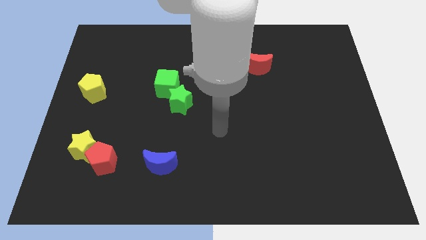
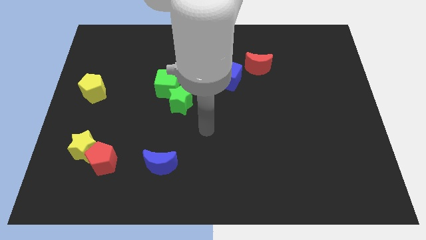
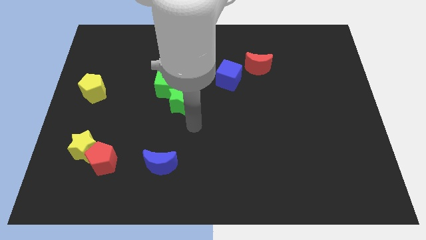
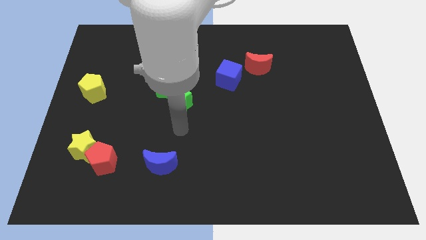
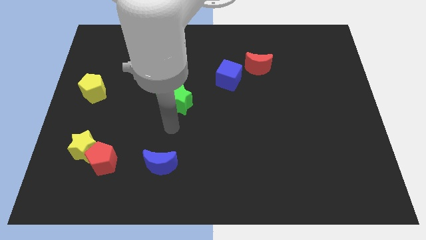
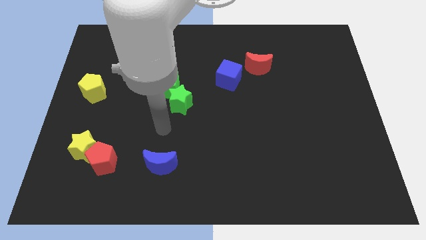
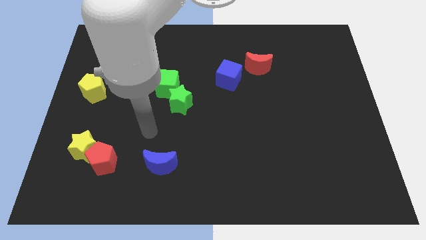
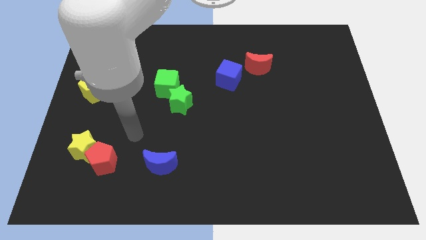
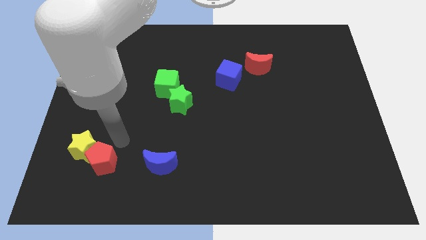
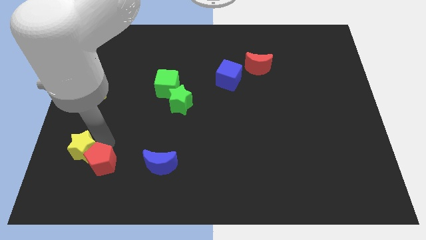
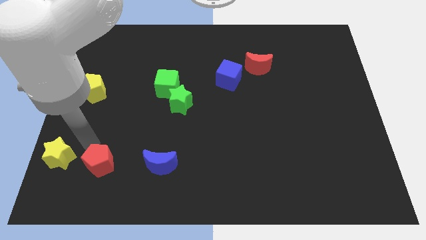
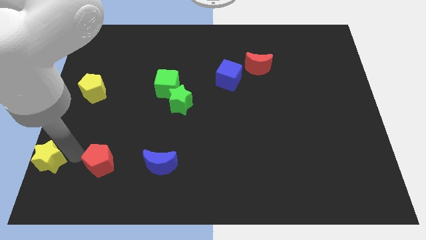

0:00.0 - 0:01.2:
separate the red pentagon from the yellow star

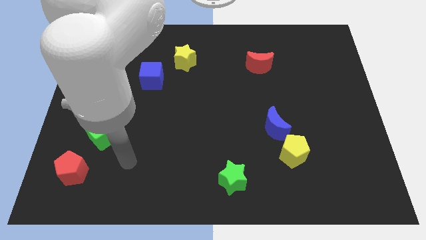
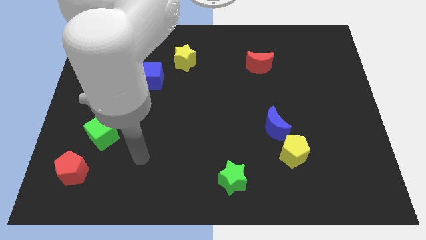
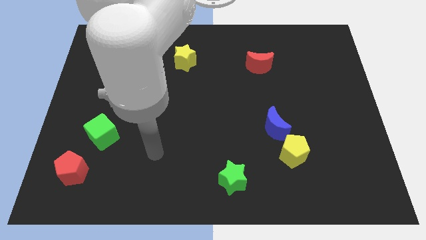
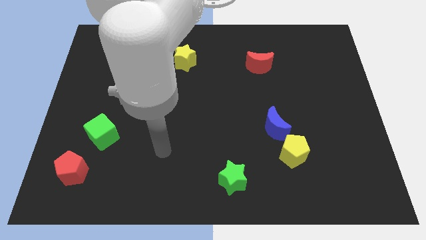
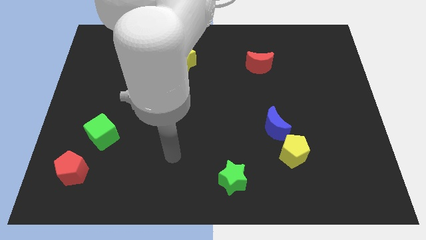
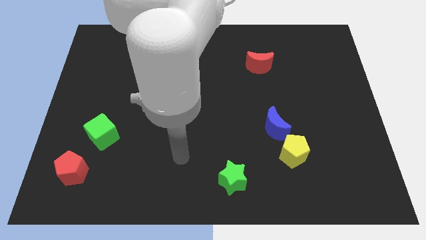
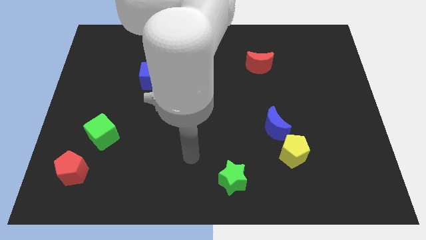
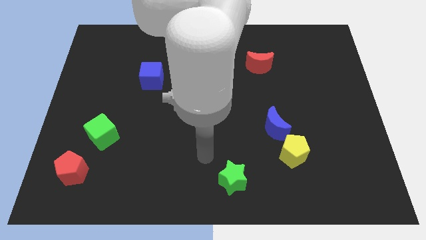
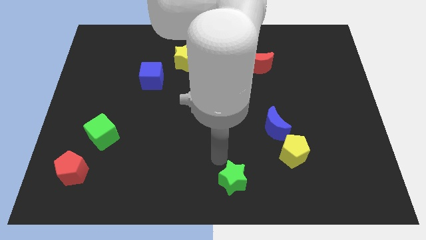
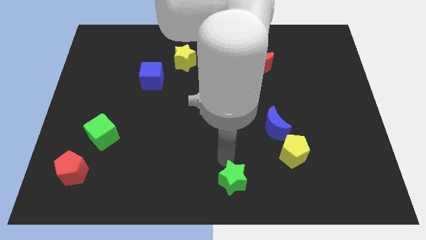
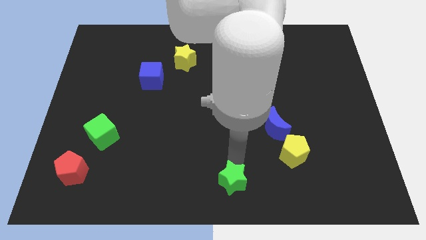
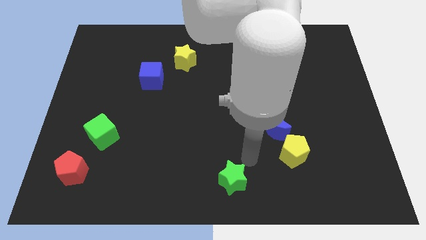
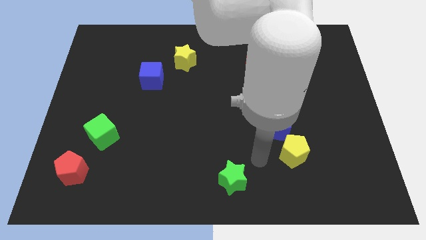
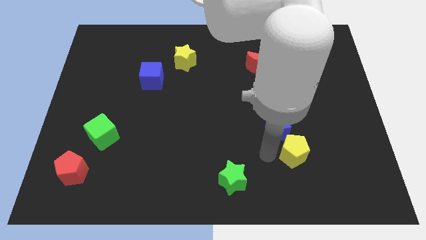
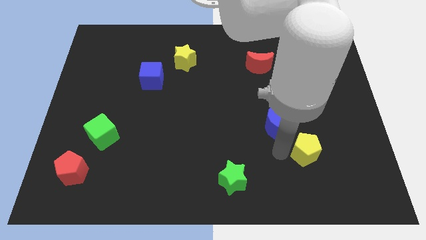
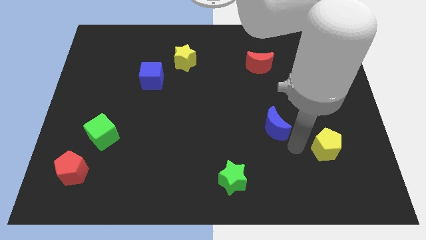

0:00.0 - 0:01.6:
separate the blue moon from the yellow pentagon

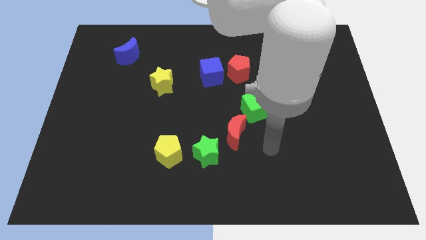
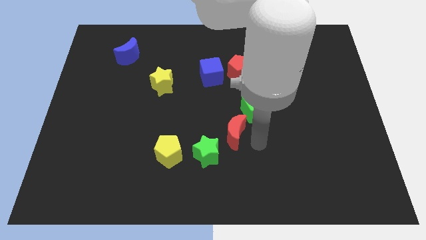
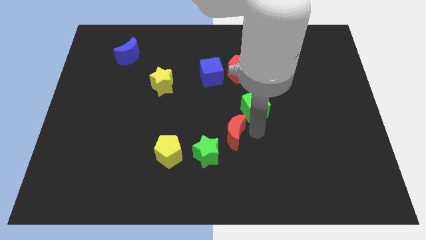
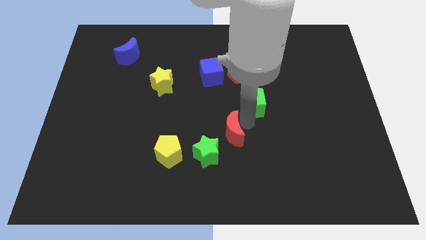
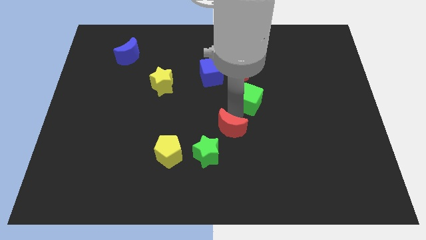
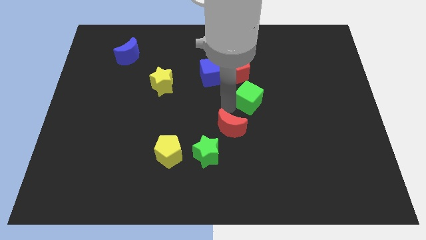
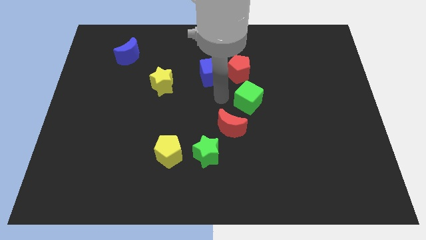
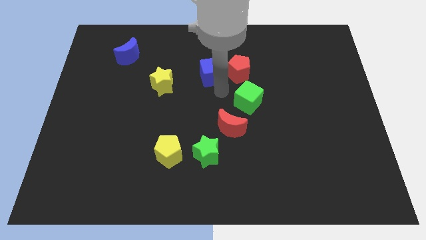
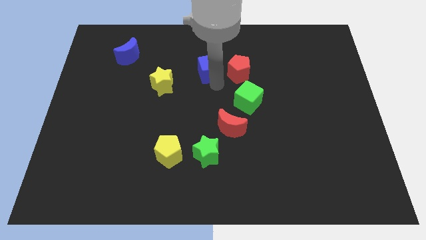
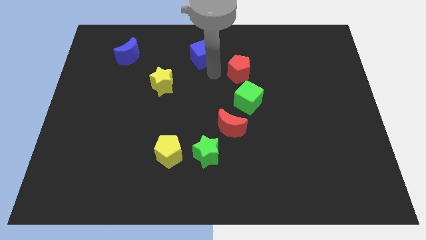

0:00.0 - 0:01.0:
pull the red pentagon apart from the blue cube

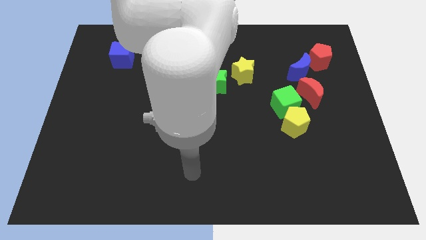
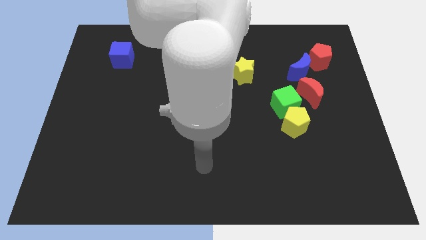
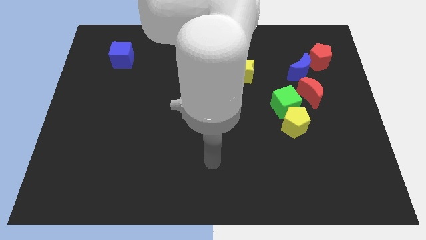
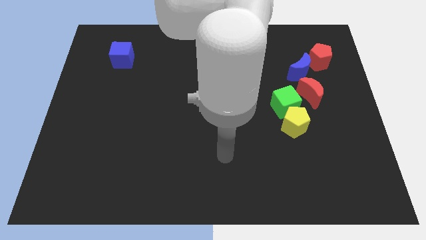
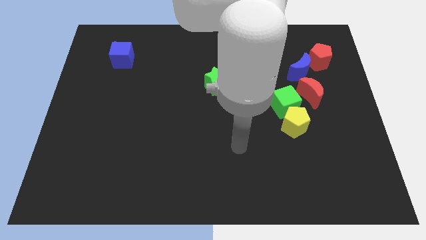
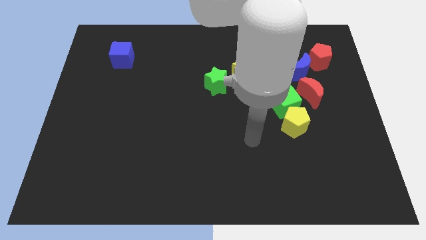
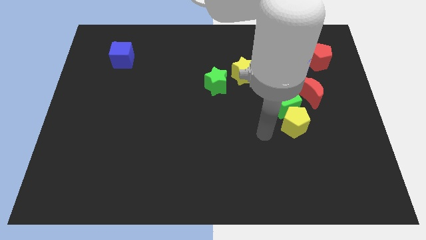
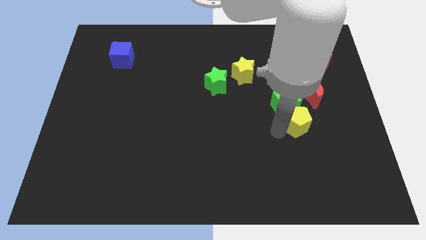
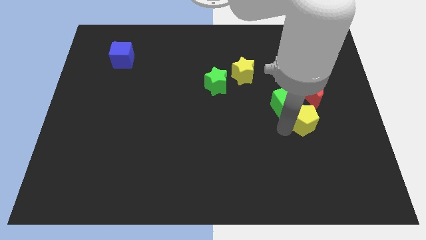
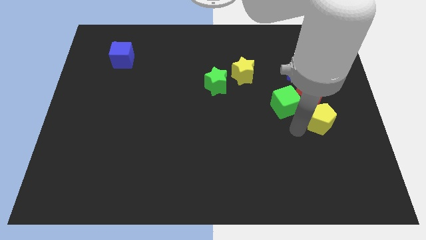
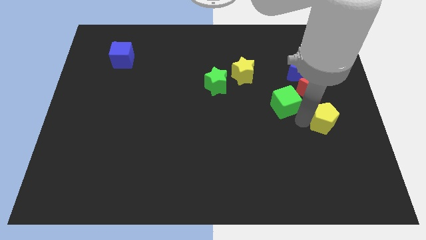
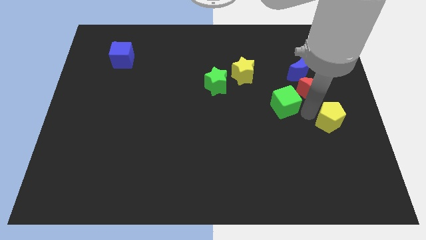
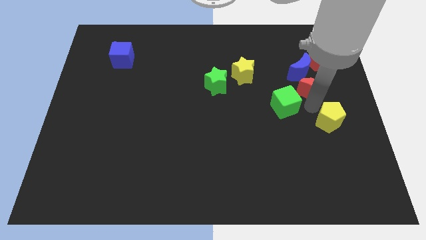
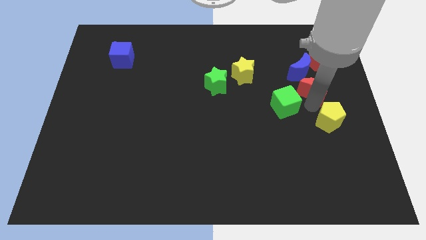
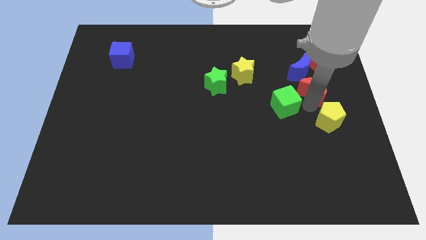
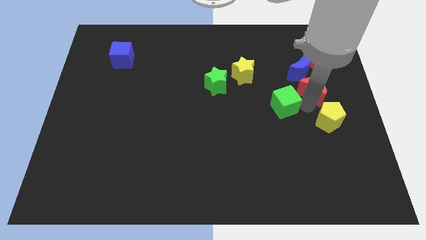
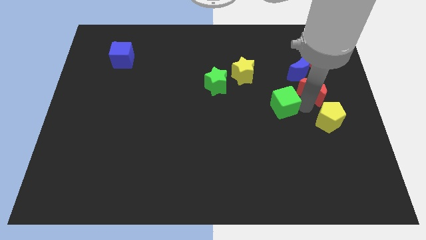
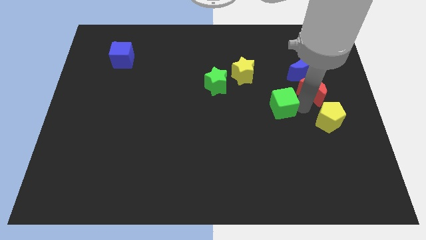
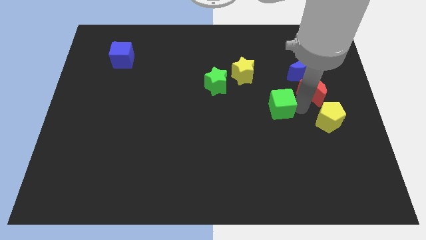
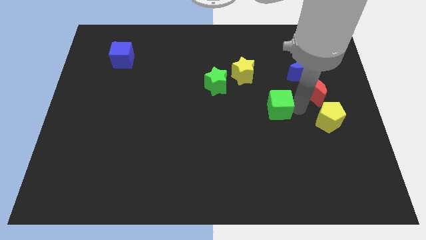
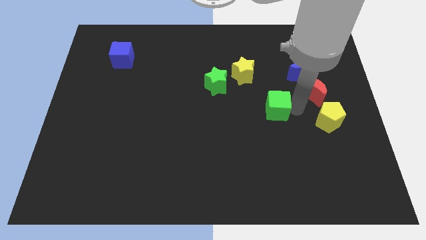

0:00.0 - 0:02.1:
move the green cube away from the yellow pentagon and red moon

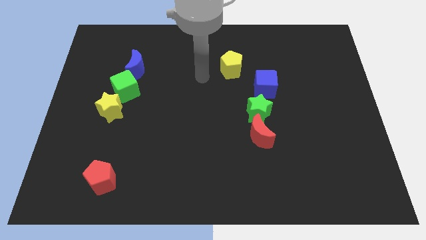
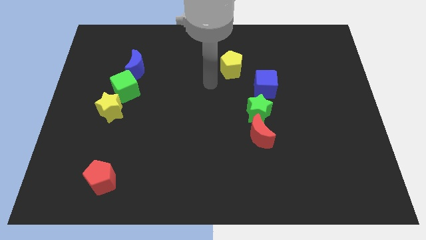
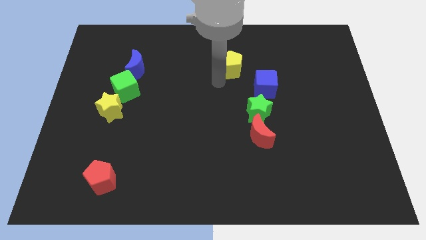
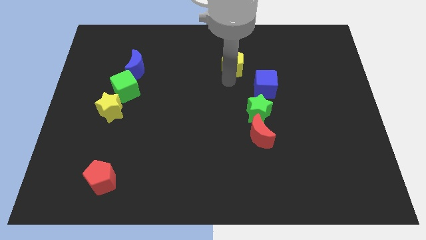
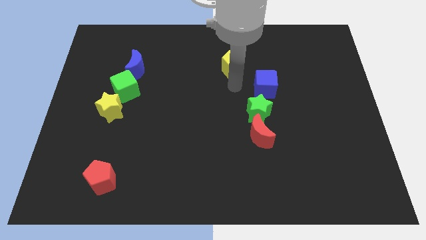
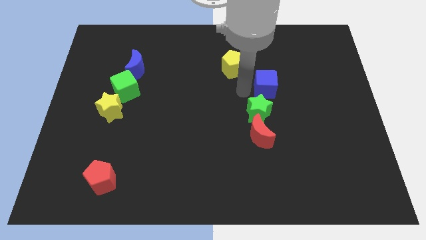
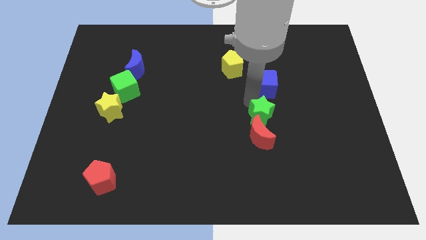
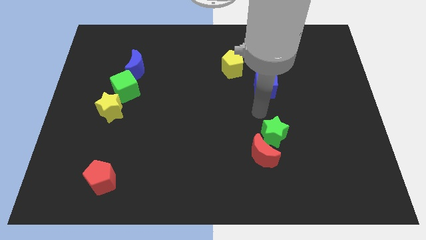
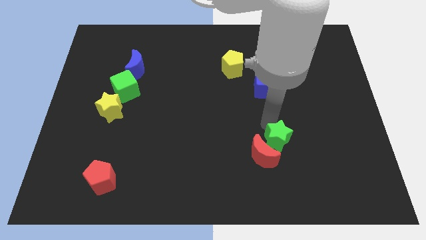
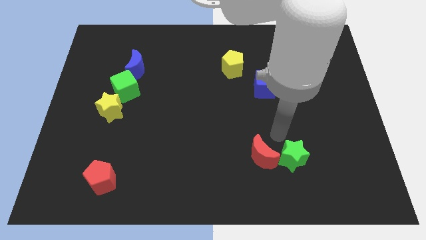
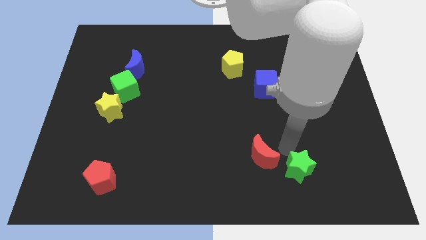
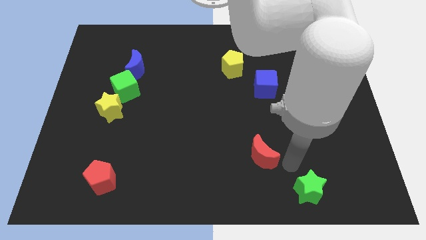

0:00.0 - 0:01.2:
separate the red moon from the green star

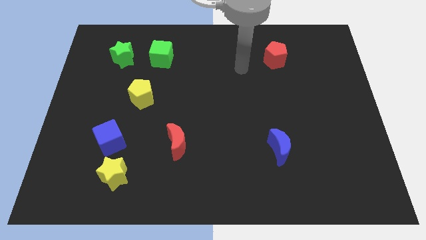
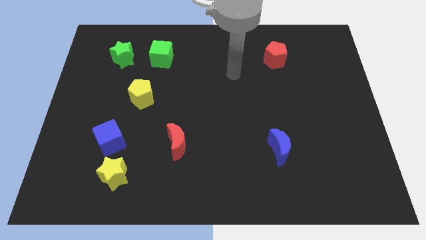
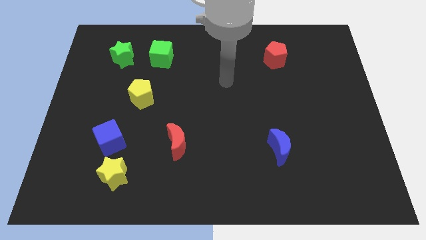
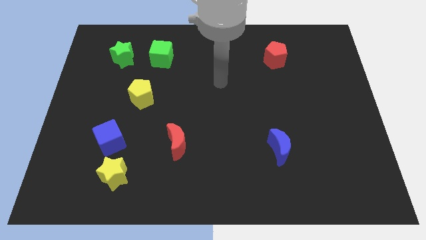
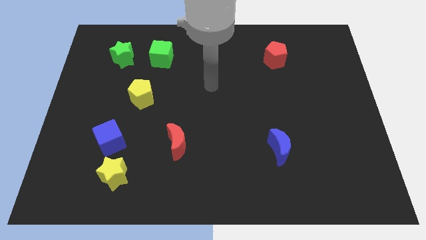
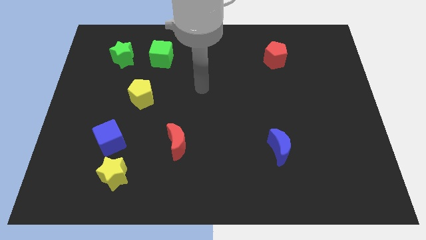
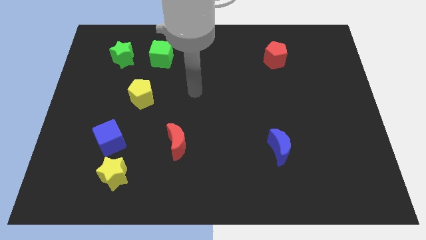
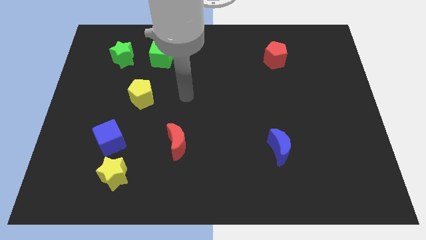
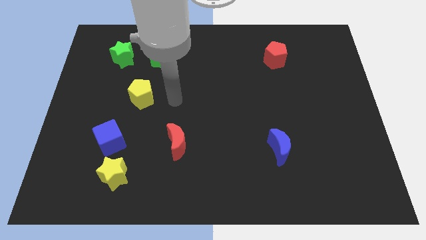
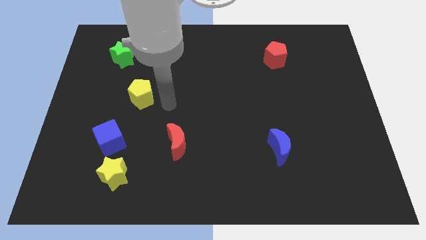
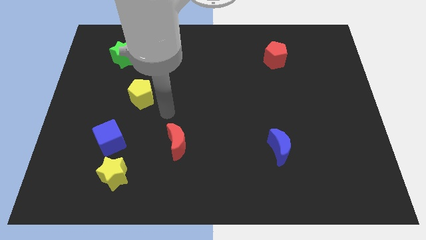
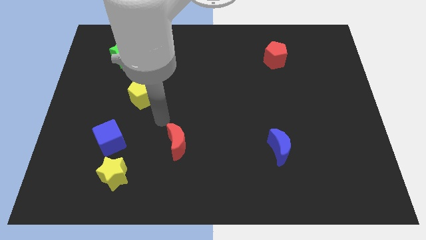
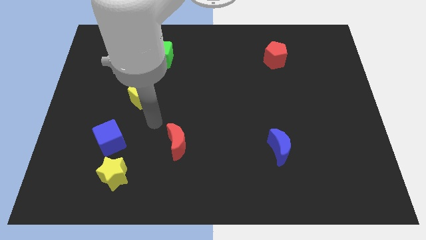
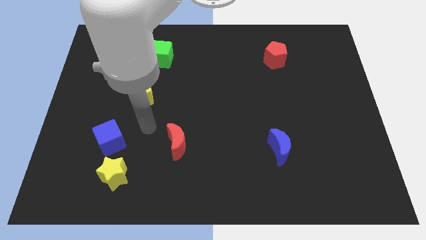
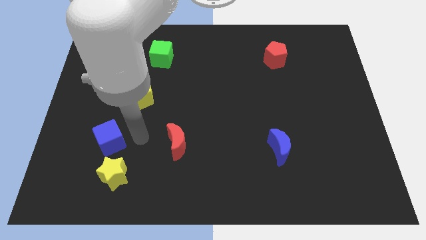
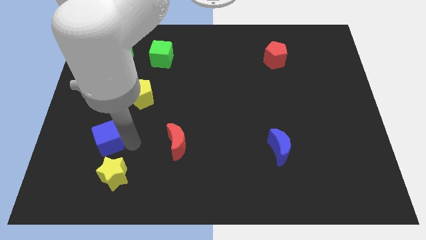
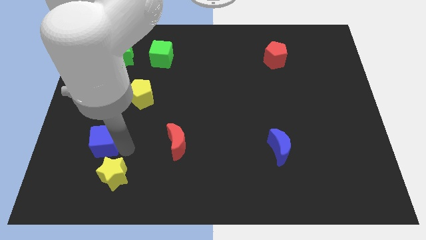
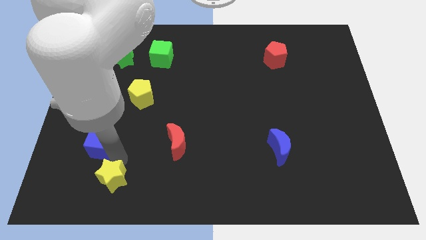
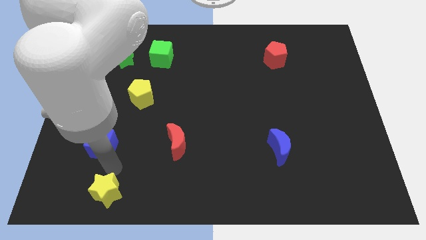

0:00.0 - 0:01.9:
separate the blue cube from the yellow star

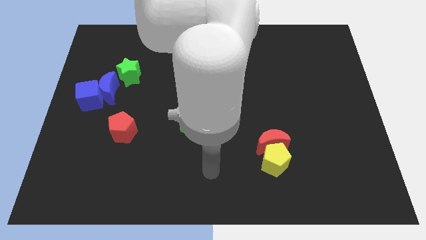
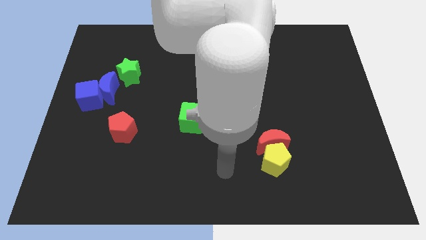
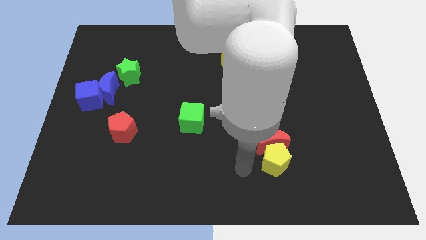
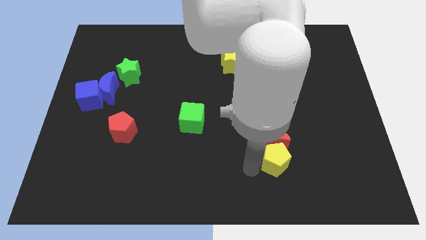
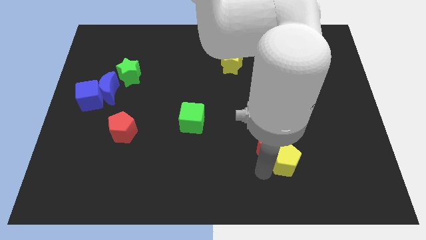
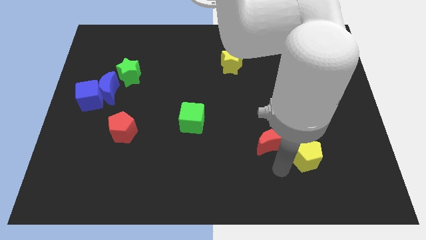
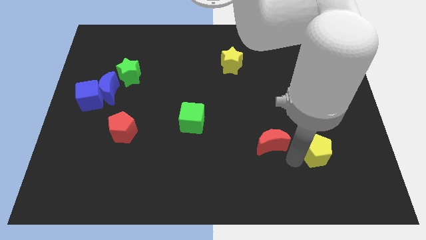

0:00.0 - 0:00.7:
pull the red moon apart from the yellow pentagon
